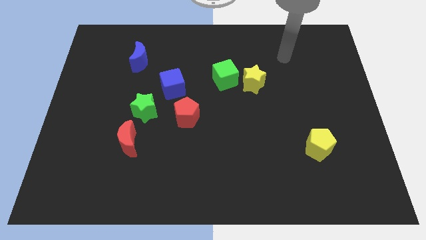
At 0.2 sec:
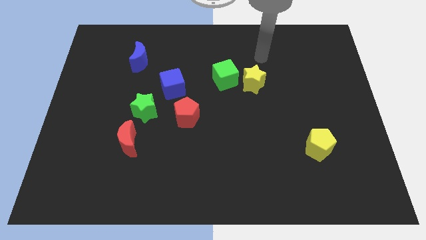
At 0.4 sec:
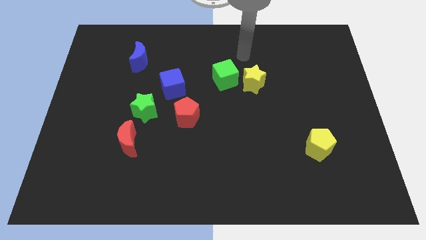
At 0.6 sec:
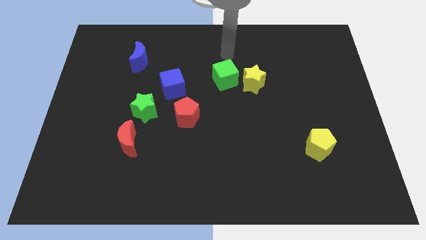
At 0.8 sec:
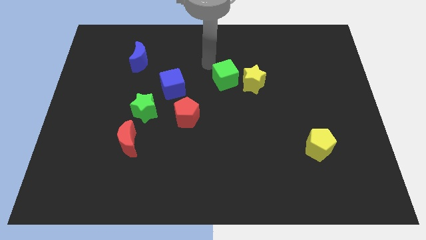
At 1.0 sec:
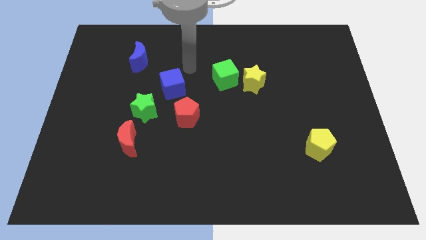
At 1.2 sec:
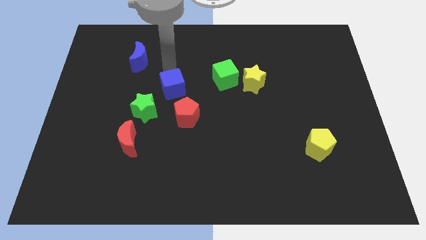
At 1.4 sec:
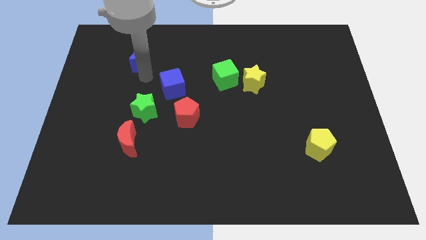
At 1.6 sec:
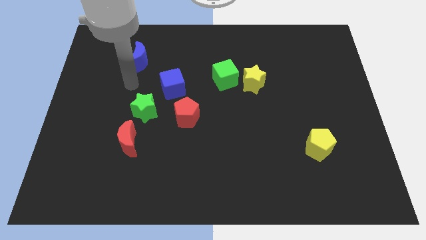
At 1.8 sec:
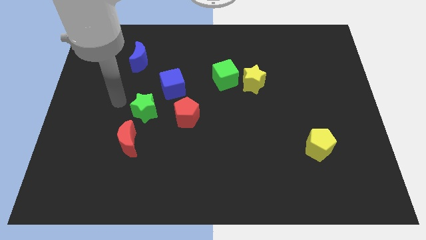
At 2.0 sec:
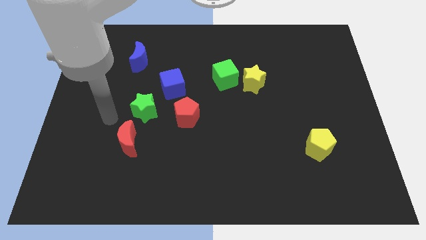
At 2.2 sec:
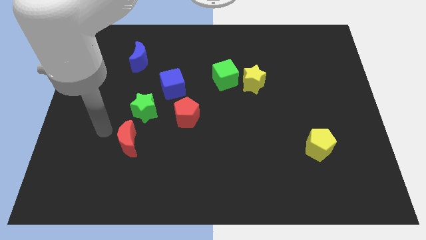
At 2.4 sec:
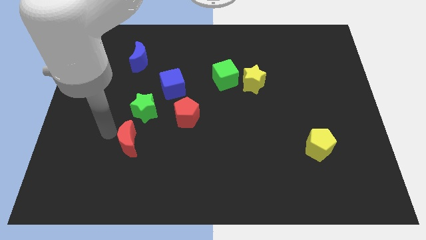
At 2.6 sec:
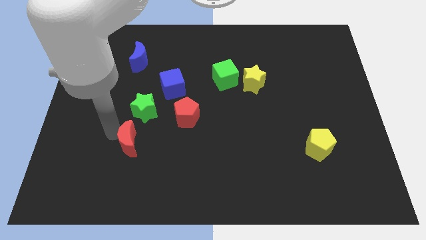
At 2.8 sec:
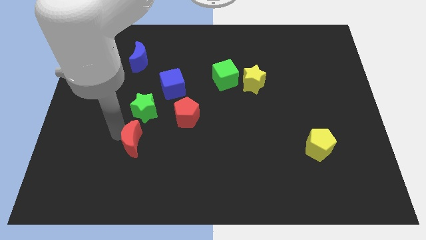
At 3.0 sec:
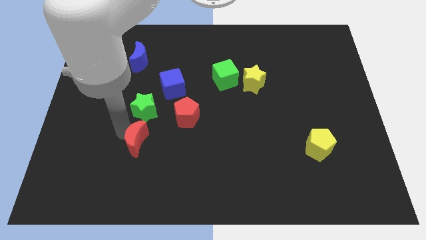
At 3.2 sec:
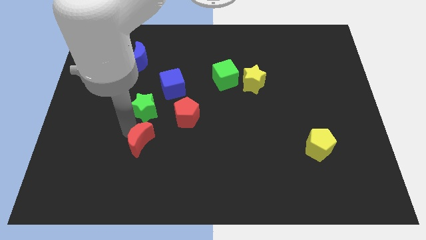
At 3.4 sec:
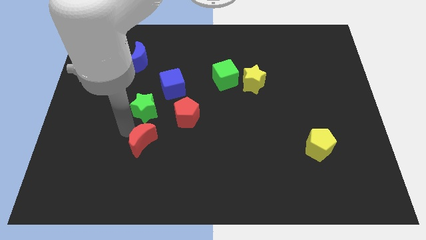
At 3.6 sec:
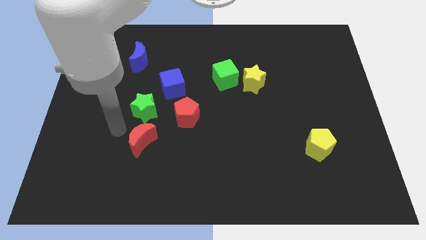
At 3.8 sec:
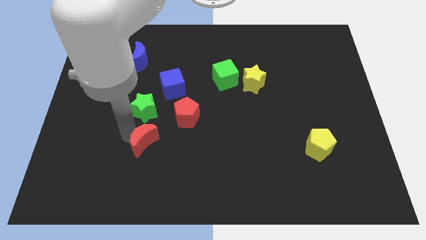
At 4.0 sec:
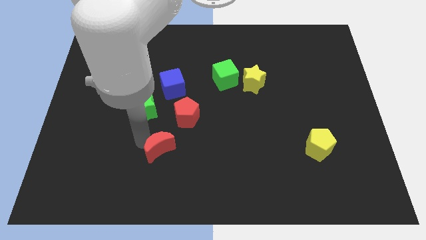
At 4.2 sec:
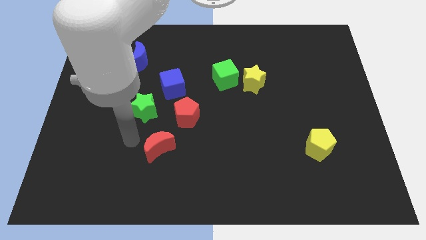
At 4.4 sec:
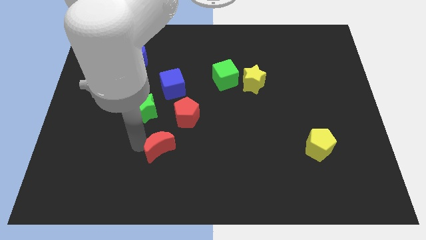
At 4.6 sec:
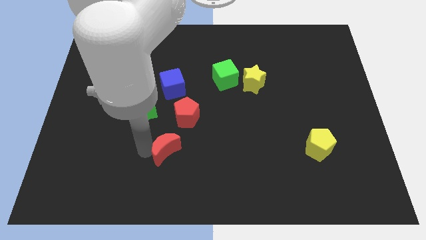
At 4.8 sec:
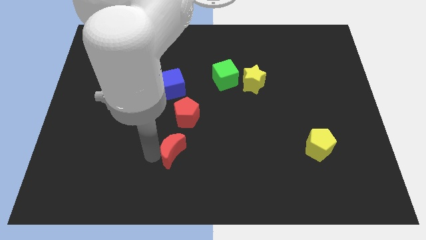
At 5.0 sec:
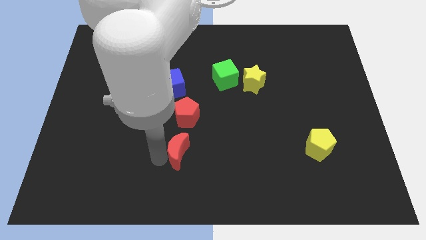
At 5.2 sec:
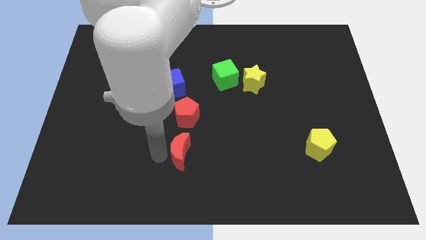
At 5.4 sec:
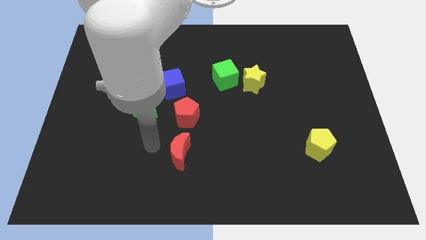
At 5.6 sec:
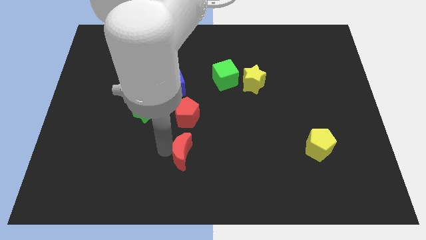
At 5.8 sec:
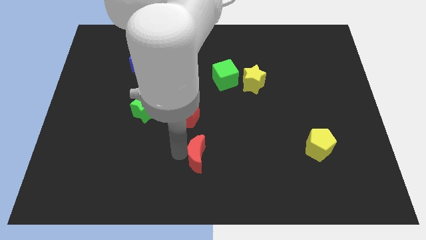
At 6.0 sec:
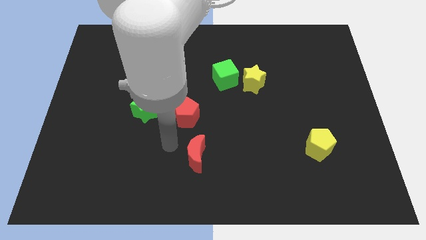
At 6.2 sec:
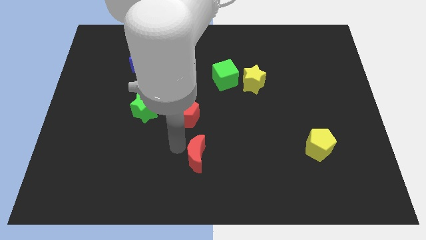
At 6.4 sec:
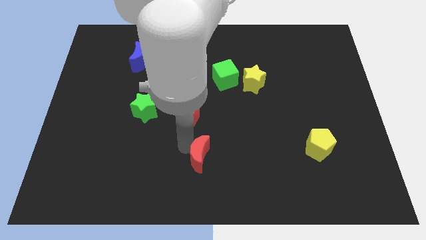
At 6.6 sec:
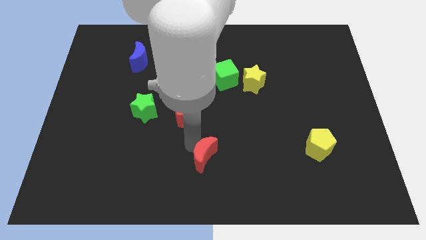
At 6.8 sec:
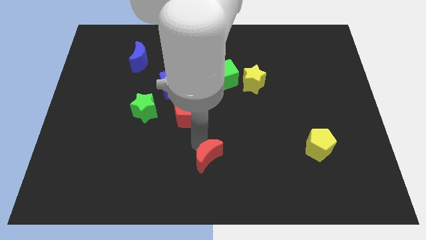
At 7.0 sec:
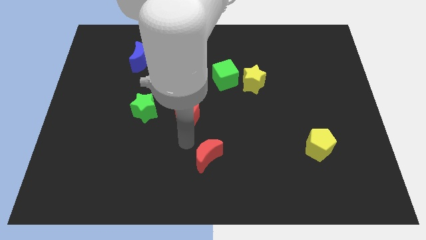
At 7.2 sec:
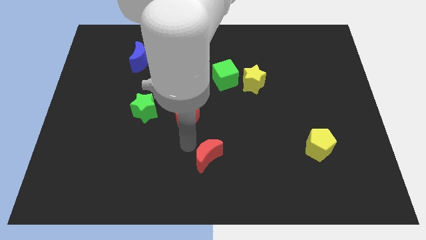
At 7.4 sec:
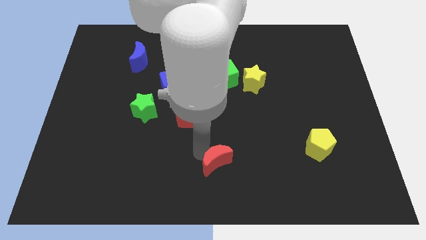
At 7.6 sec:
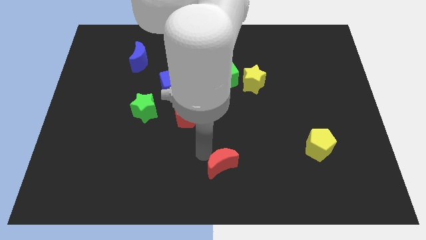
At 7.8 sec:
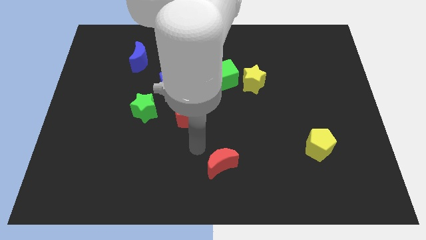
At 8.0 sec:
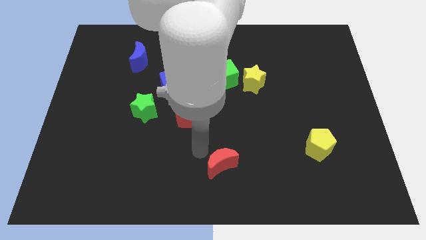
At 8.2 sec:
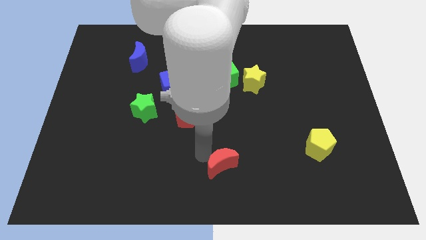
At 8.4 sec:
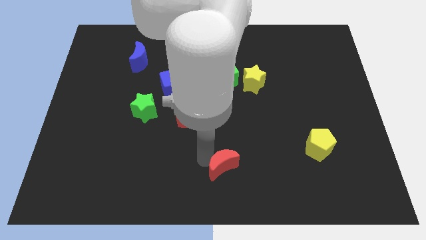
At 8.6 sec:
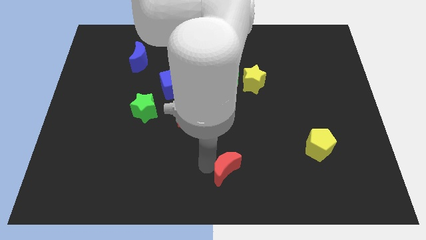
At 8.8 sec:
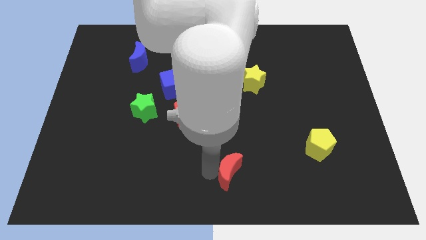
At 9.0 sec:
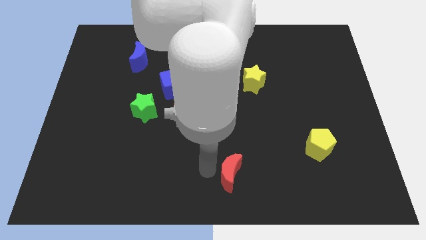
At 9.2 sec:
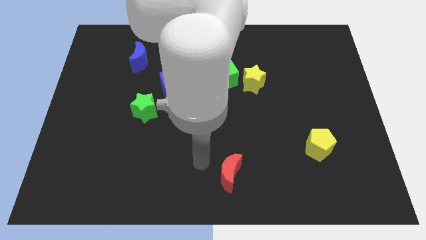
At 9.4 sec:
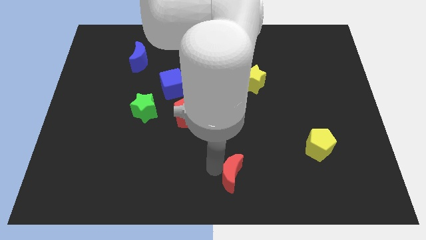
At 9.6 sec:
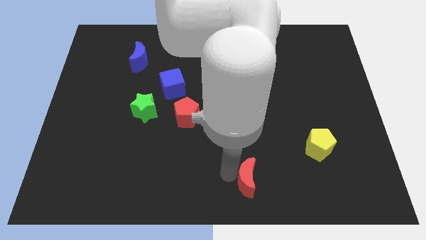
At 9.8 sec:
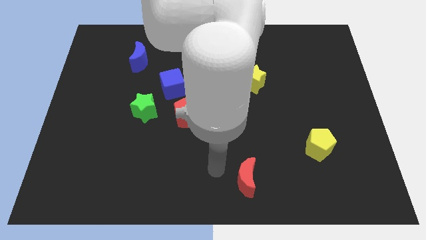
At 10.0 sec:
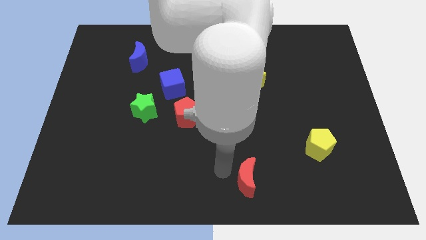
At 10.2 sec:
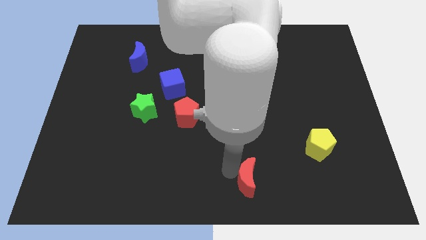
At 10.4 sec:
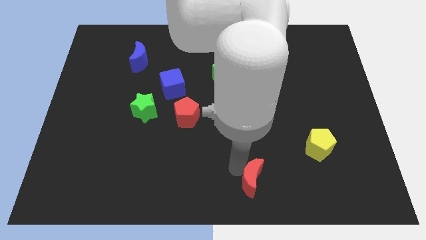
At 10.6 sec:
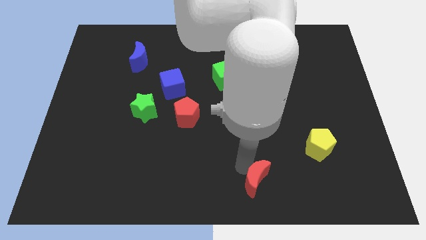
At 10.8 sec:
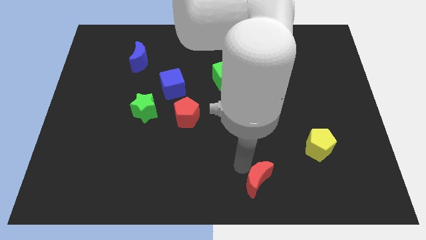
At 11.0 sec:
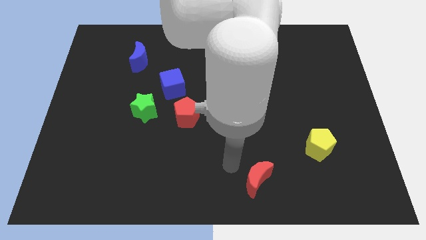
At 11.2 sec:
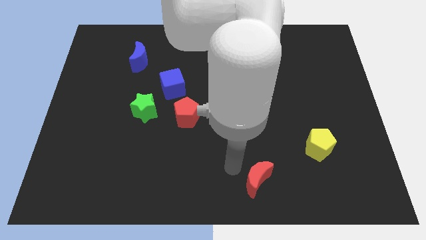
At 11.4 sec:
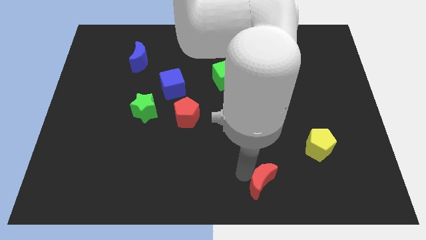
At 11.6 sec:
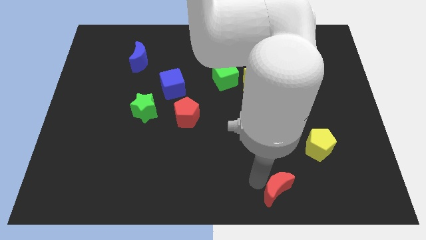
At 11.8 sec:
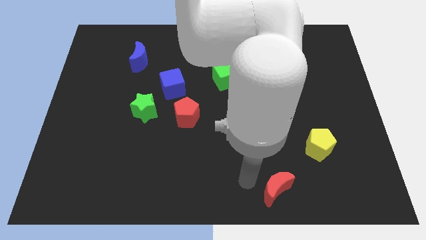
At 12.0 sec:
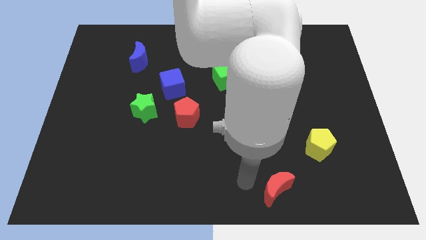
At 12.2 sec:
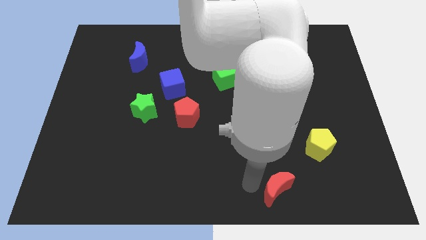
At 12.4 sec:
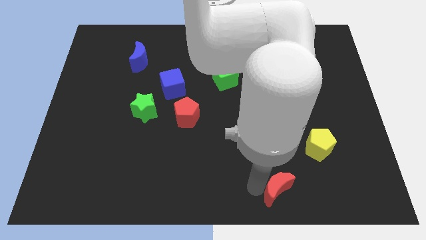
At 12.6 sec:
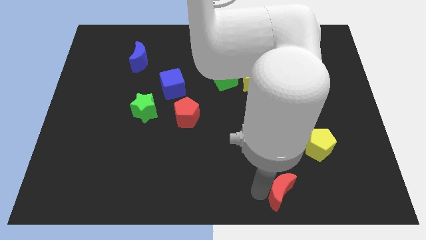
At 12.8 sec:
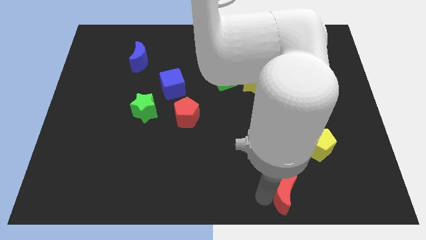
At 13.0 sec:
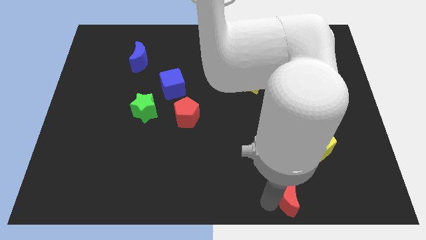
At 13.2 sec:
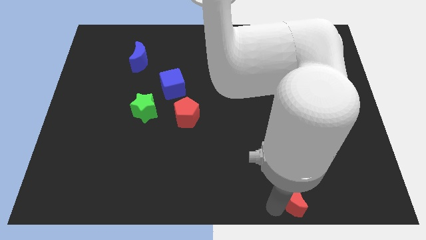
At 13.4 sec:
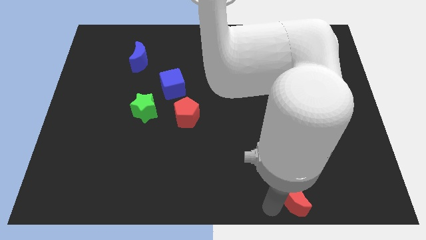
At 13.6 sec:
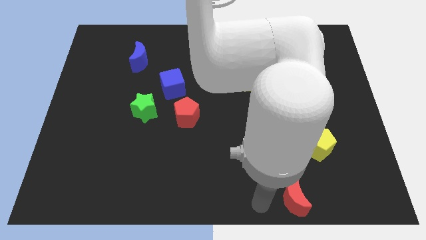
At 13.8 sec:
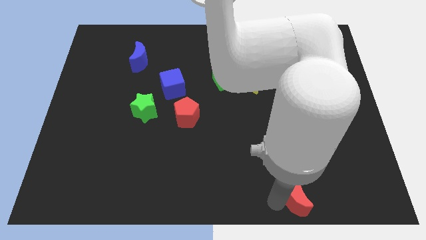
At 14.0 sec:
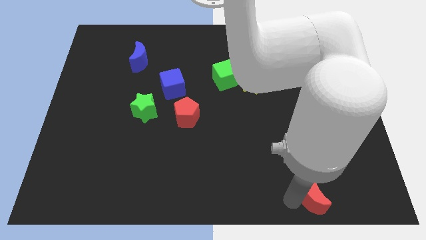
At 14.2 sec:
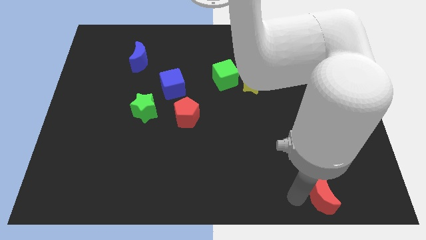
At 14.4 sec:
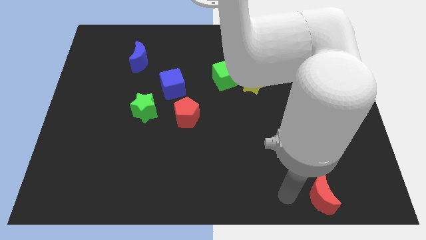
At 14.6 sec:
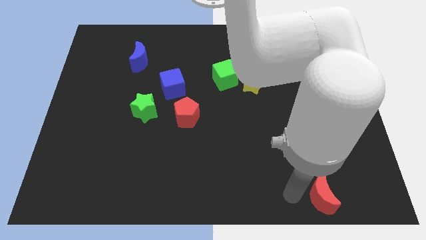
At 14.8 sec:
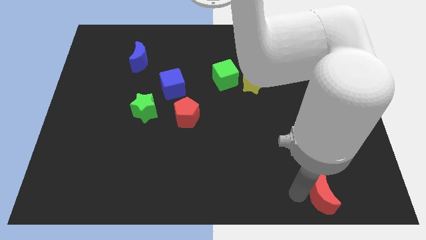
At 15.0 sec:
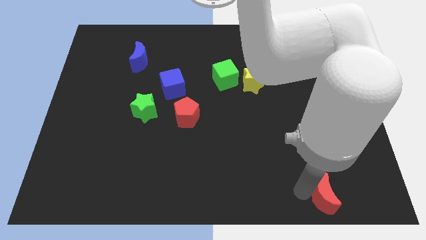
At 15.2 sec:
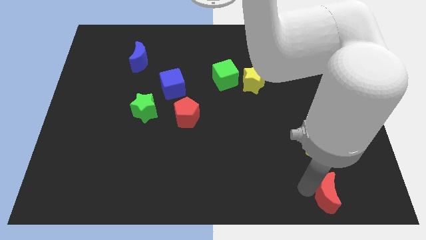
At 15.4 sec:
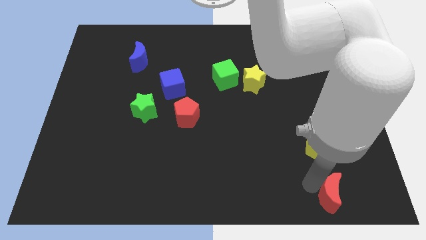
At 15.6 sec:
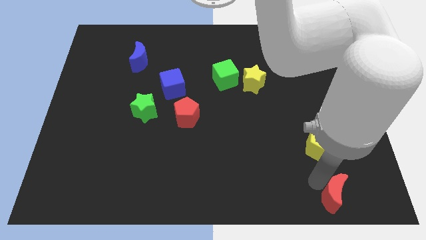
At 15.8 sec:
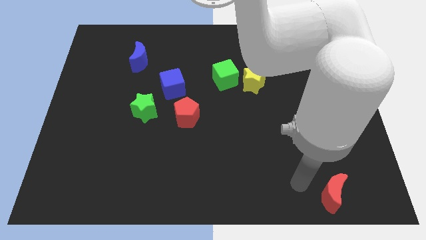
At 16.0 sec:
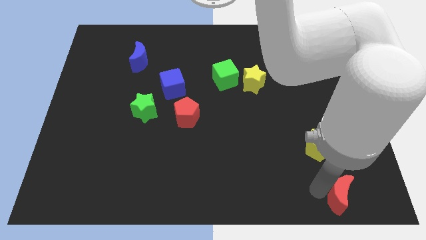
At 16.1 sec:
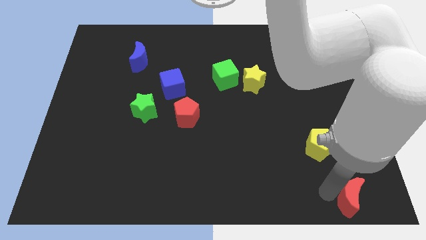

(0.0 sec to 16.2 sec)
push the red moon to the bottom right
